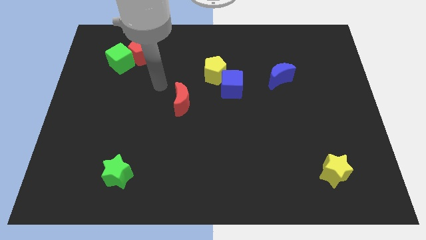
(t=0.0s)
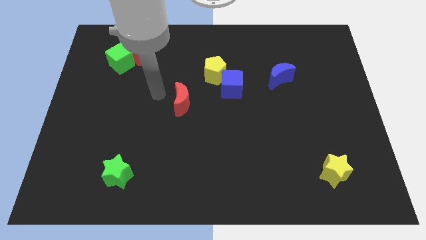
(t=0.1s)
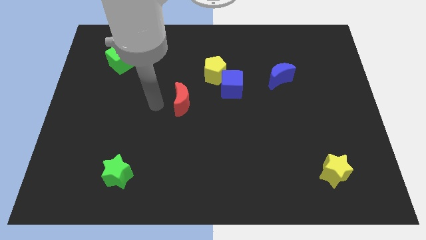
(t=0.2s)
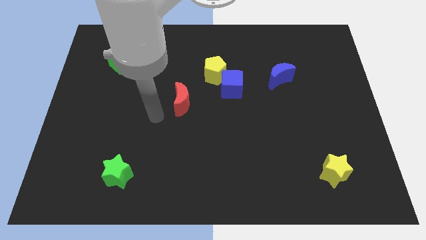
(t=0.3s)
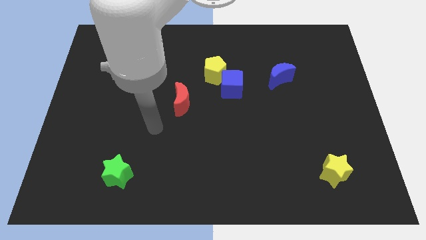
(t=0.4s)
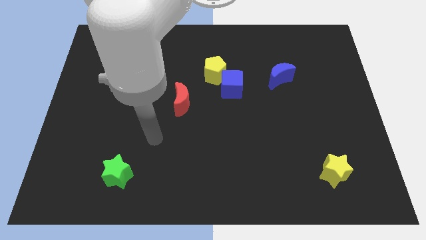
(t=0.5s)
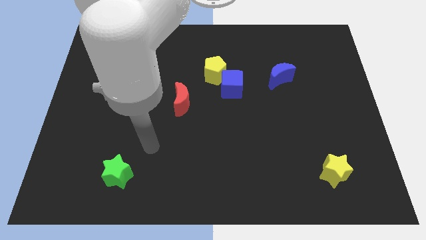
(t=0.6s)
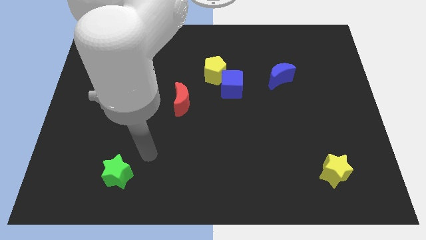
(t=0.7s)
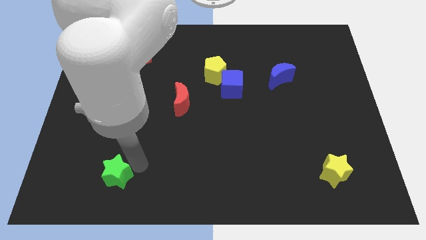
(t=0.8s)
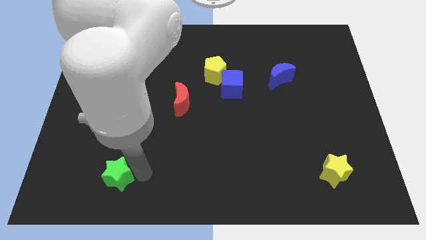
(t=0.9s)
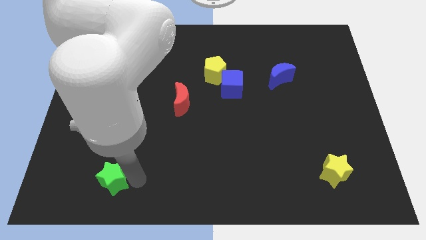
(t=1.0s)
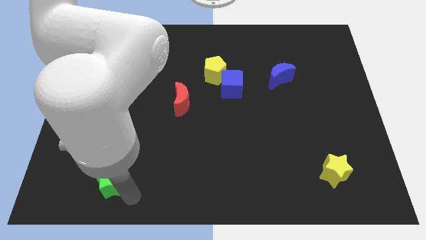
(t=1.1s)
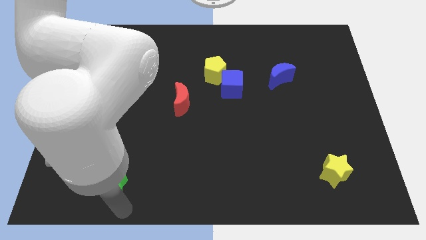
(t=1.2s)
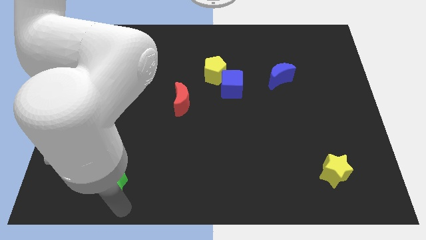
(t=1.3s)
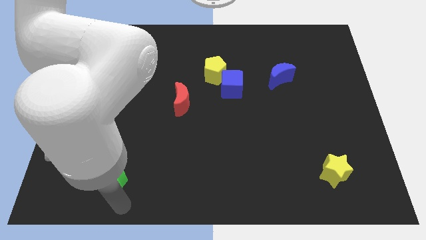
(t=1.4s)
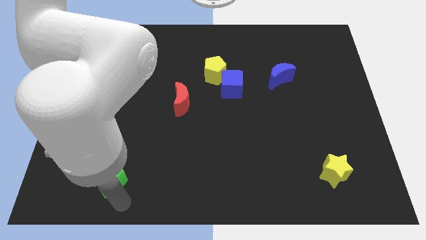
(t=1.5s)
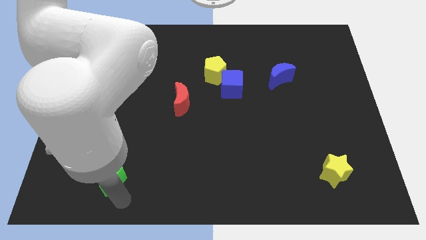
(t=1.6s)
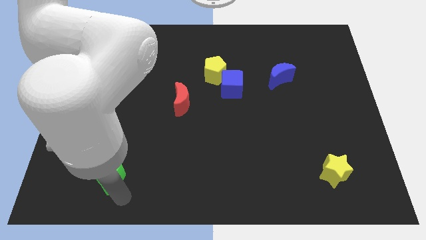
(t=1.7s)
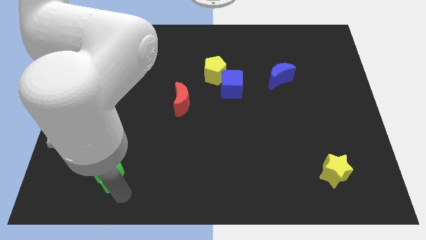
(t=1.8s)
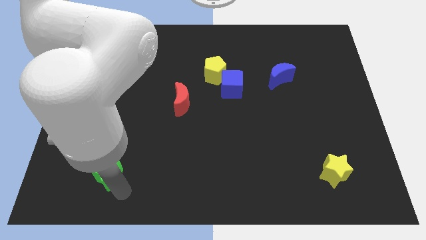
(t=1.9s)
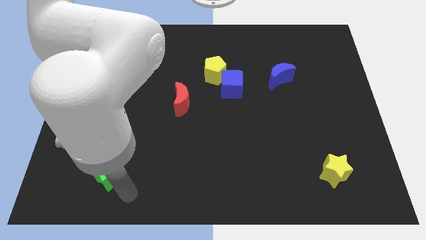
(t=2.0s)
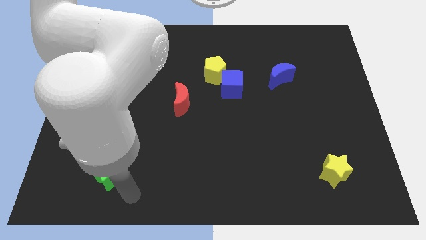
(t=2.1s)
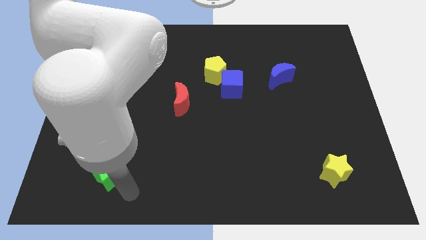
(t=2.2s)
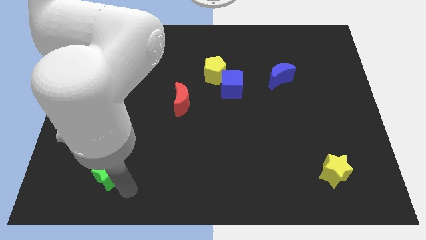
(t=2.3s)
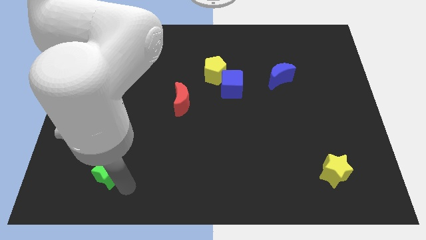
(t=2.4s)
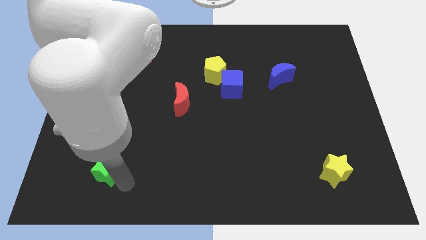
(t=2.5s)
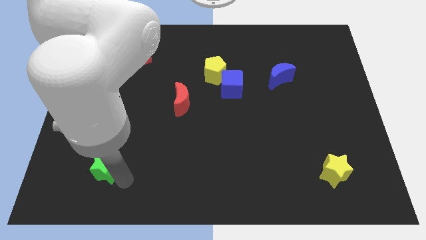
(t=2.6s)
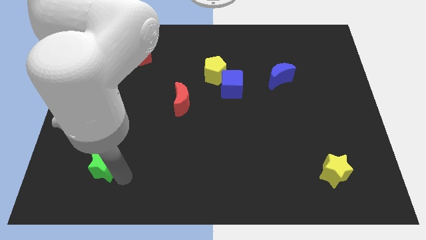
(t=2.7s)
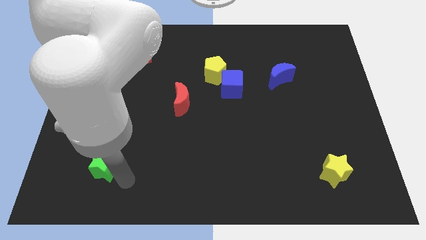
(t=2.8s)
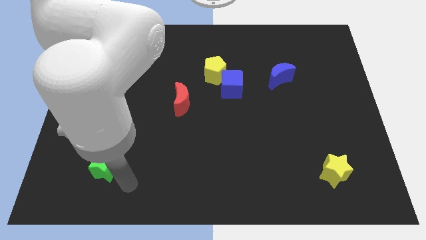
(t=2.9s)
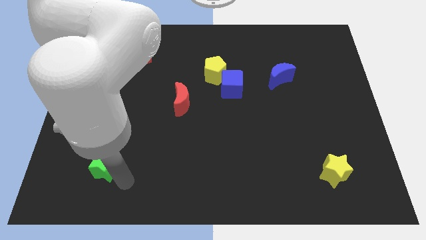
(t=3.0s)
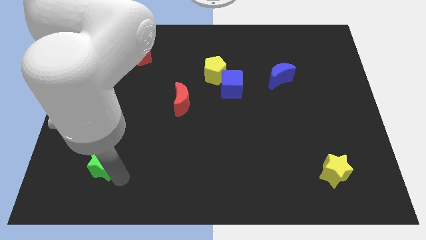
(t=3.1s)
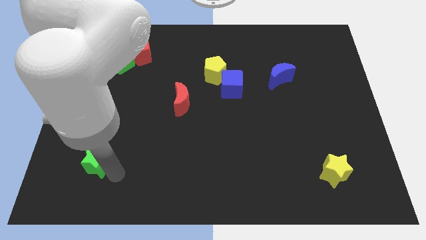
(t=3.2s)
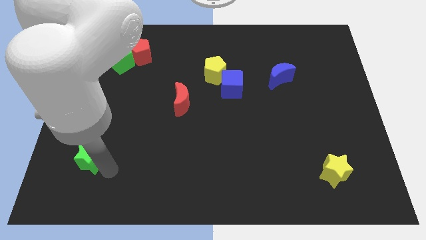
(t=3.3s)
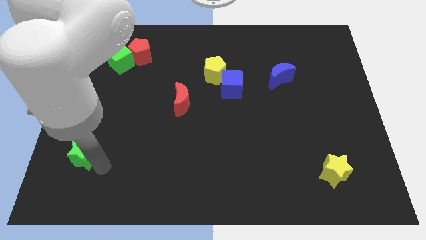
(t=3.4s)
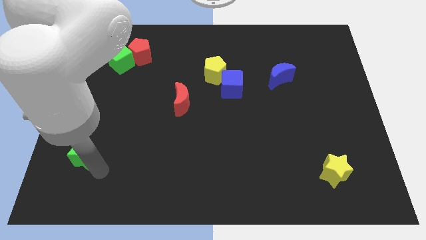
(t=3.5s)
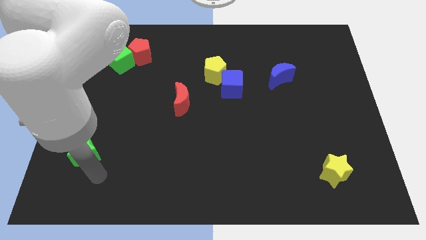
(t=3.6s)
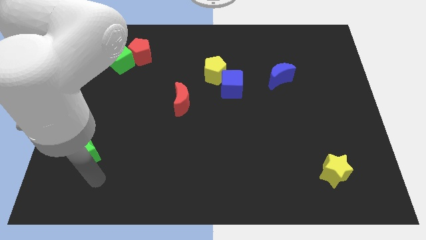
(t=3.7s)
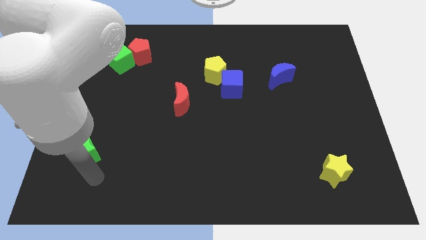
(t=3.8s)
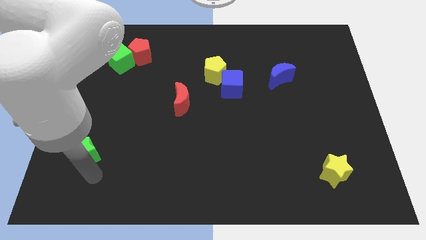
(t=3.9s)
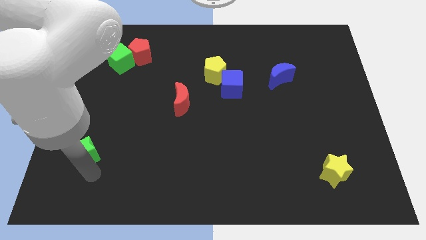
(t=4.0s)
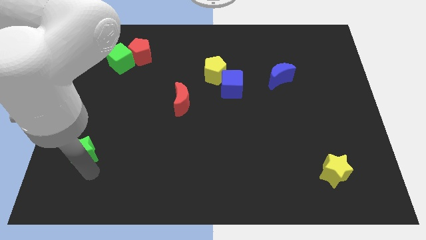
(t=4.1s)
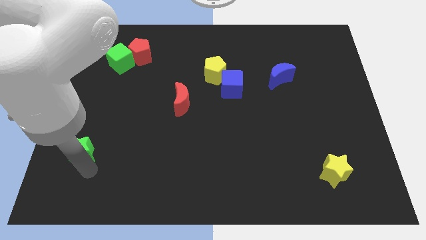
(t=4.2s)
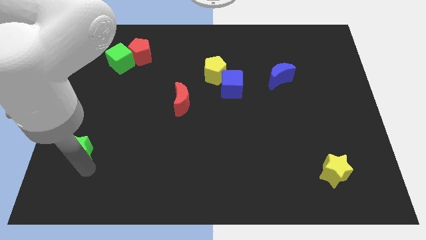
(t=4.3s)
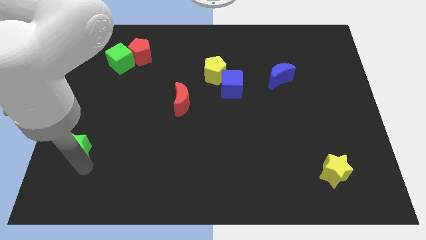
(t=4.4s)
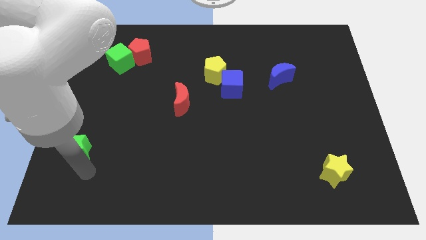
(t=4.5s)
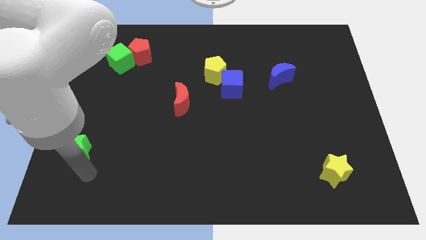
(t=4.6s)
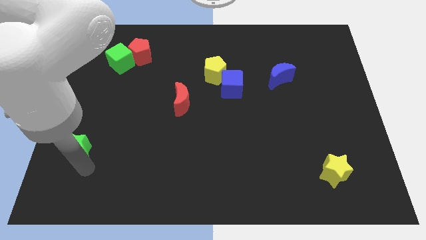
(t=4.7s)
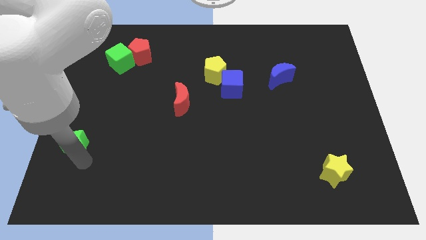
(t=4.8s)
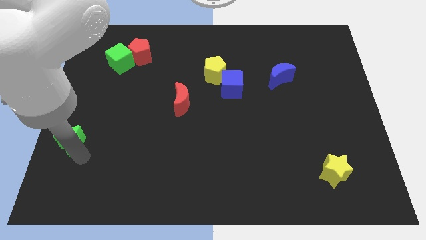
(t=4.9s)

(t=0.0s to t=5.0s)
put the green star to the center left

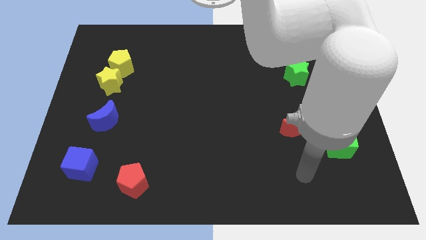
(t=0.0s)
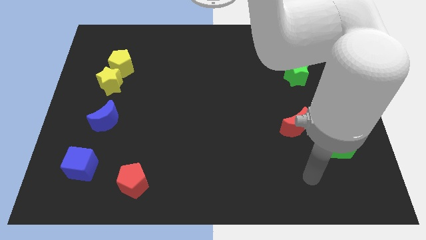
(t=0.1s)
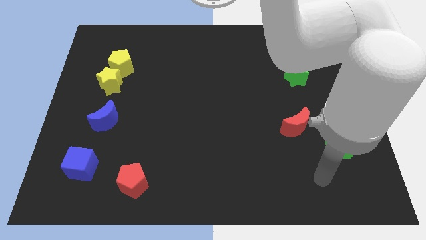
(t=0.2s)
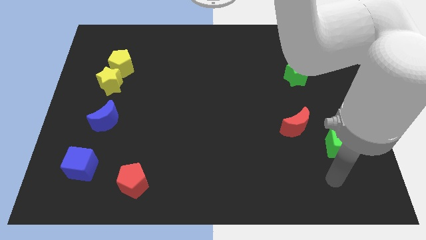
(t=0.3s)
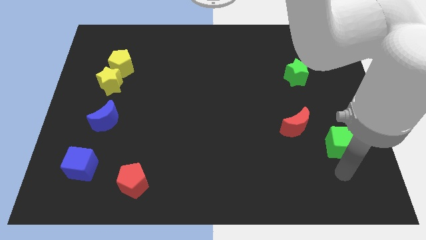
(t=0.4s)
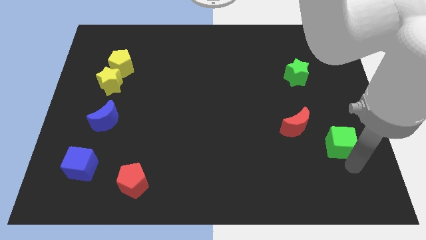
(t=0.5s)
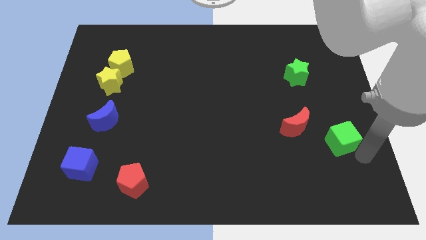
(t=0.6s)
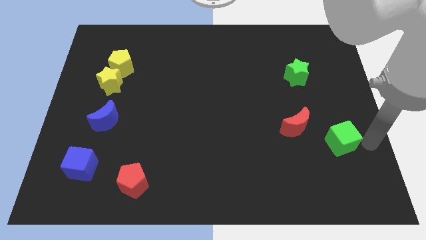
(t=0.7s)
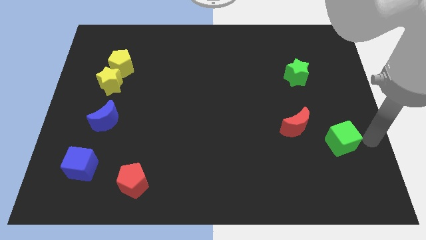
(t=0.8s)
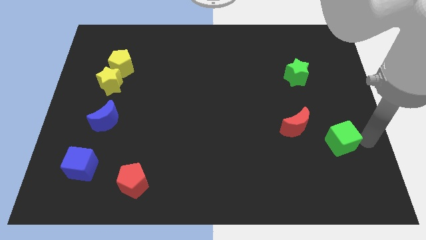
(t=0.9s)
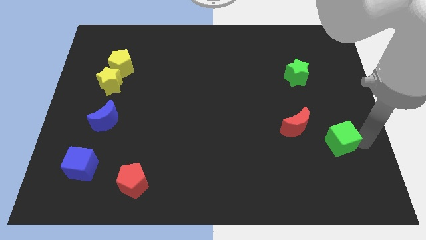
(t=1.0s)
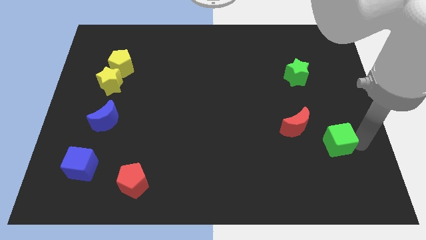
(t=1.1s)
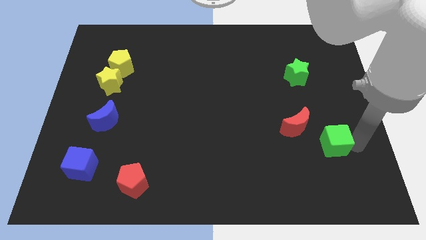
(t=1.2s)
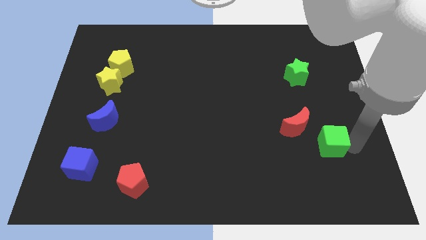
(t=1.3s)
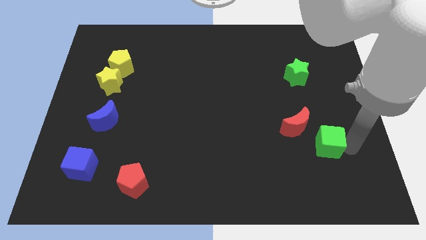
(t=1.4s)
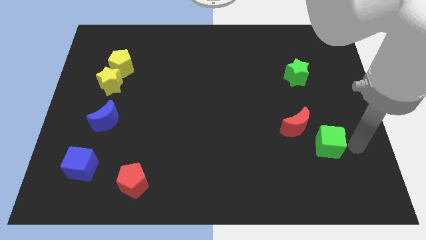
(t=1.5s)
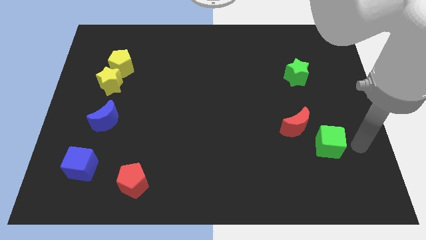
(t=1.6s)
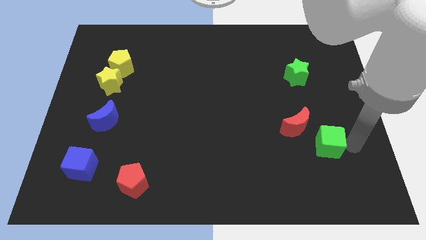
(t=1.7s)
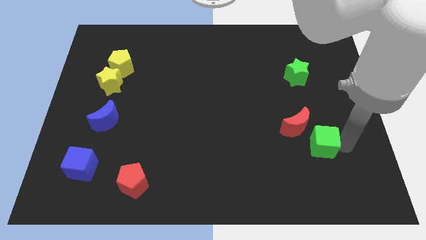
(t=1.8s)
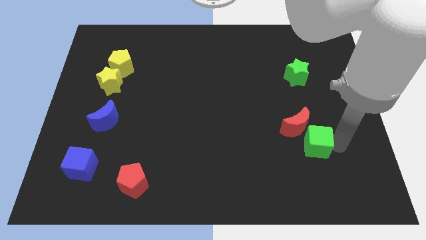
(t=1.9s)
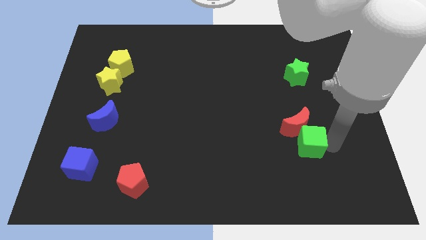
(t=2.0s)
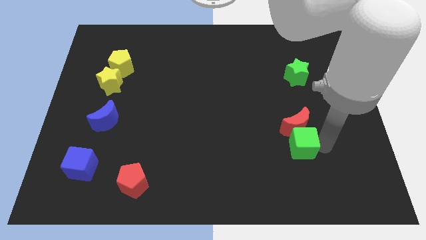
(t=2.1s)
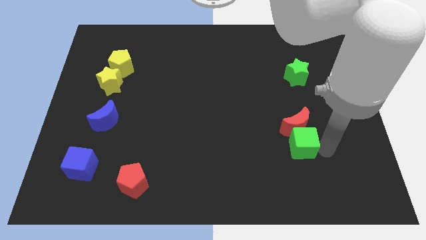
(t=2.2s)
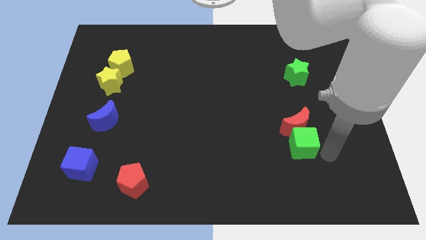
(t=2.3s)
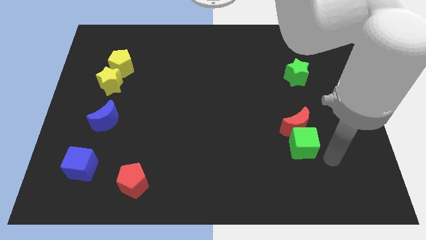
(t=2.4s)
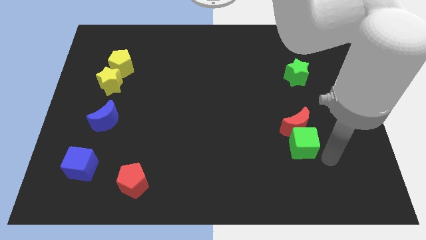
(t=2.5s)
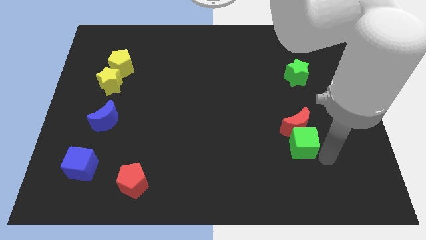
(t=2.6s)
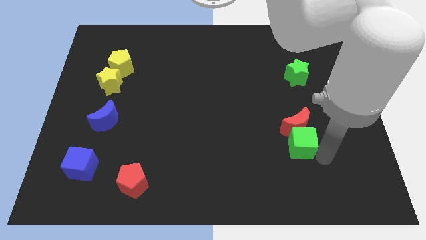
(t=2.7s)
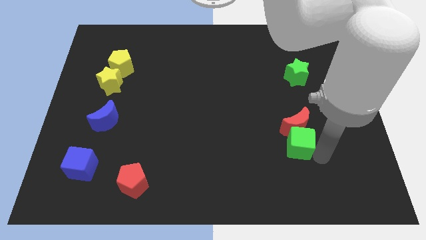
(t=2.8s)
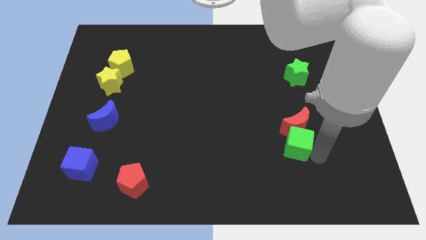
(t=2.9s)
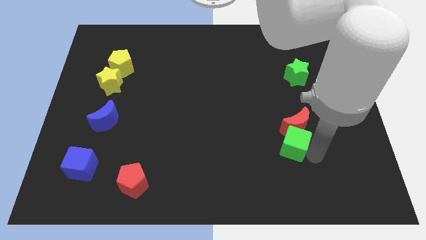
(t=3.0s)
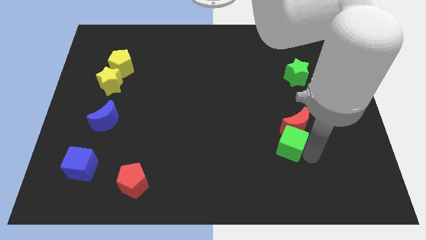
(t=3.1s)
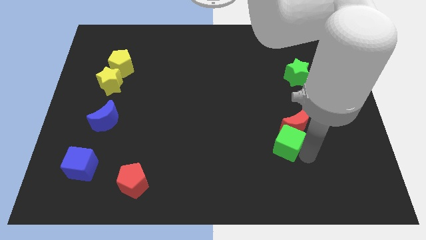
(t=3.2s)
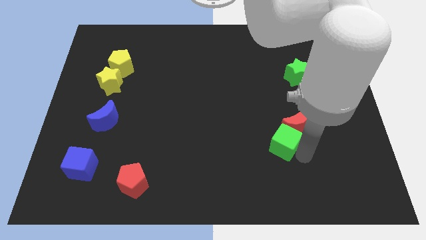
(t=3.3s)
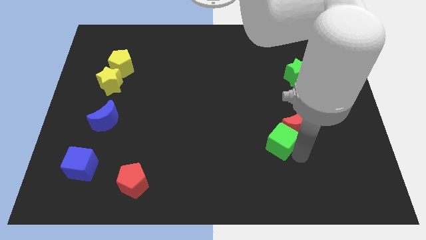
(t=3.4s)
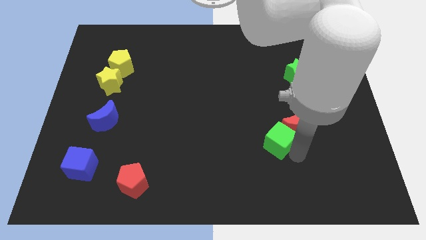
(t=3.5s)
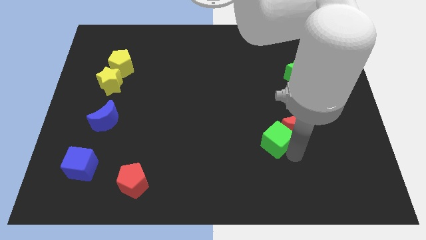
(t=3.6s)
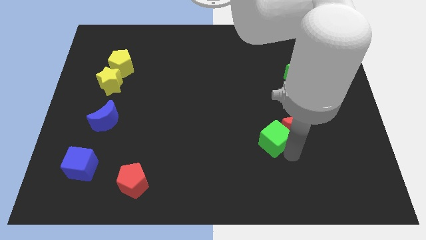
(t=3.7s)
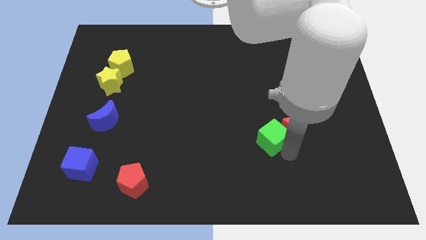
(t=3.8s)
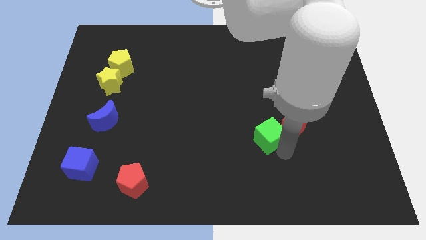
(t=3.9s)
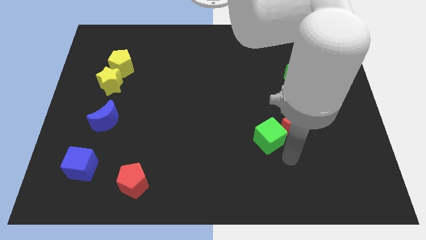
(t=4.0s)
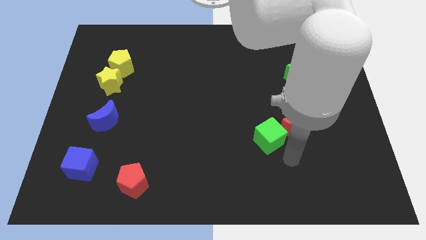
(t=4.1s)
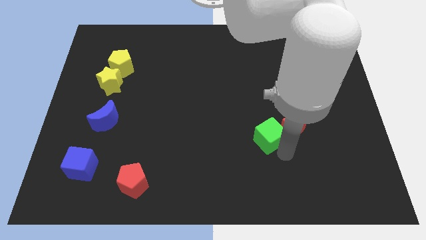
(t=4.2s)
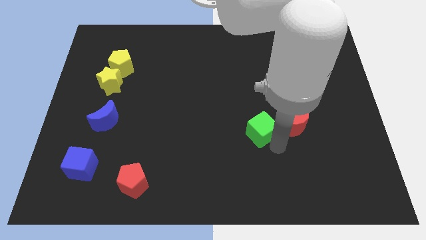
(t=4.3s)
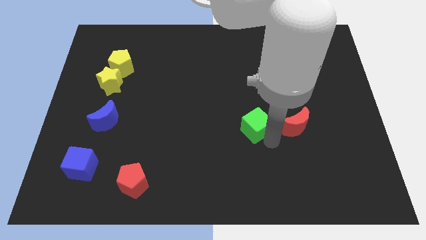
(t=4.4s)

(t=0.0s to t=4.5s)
put the green cube to the middle of the board
